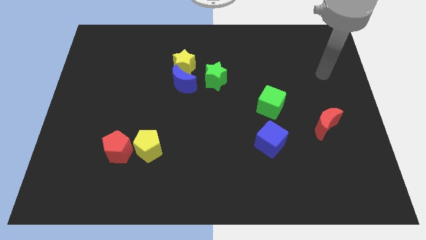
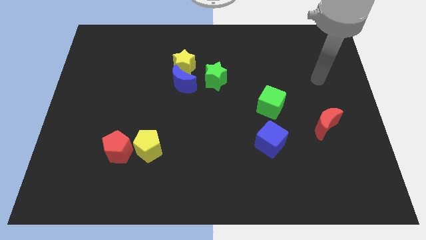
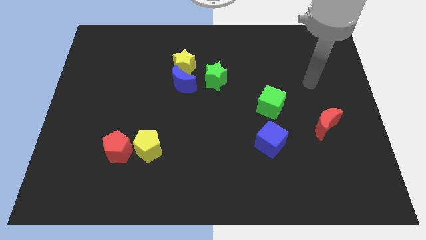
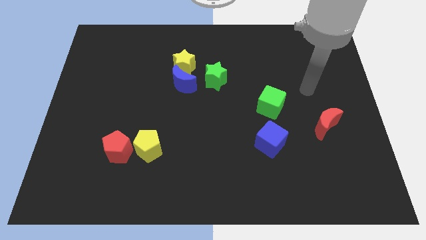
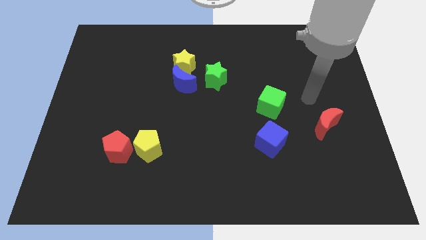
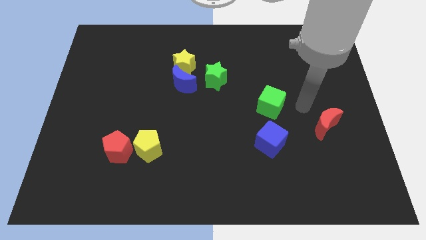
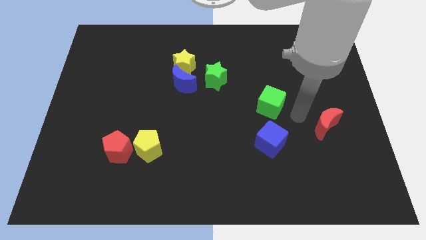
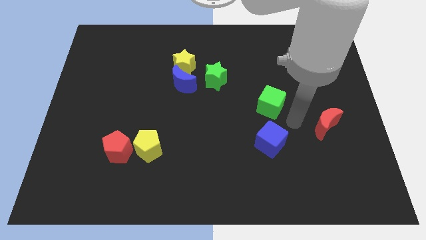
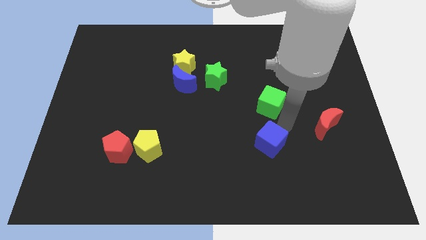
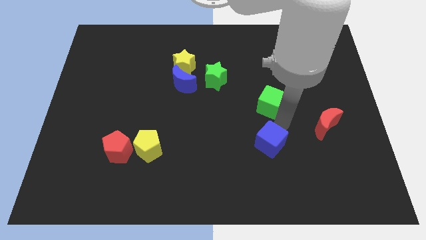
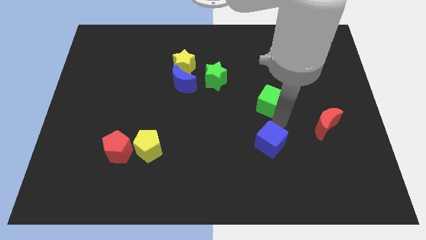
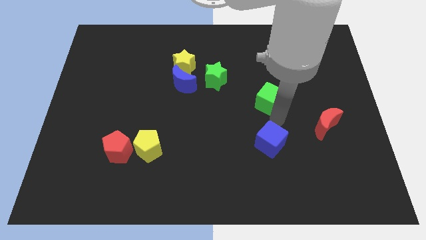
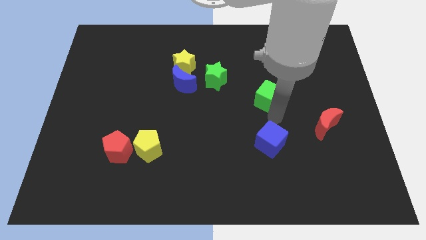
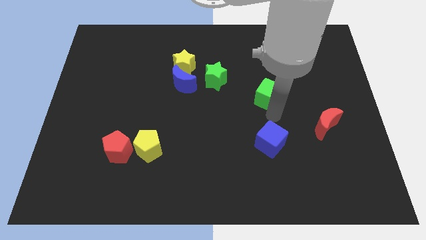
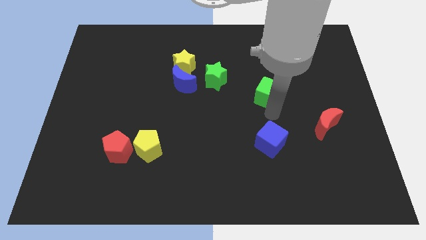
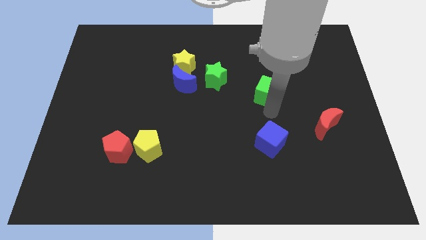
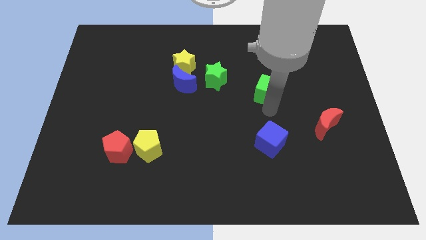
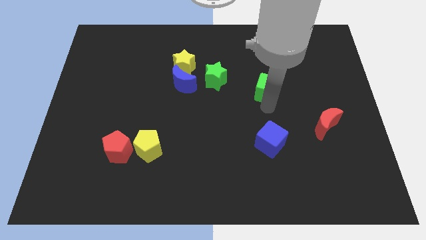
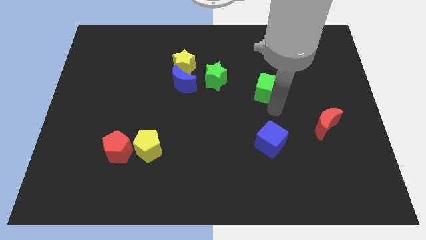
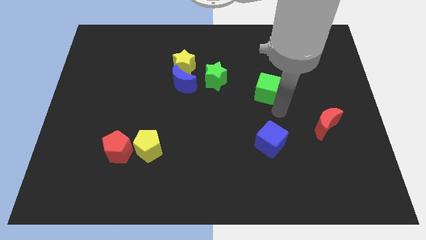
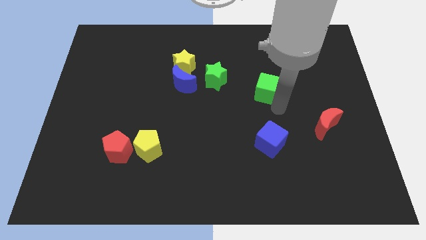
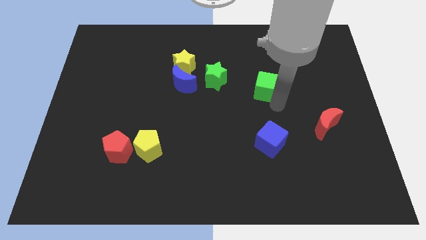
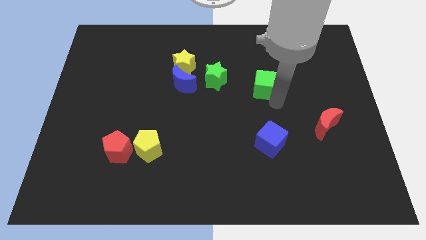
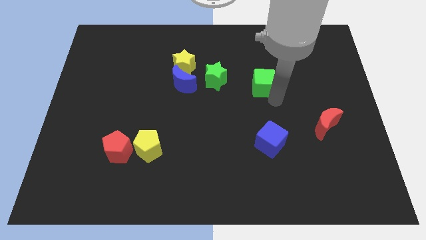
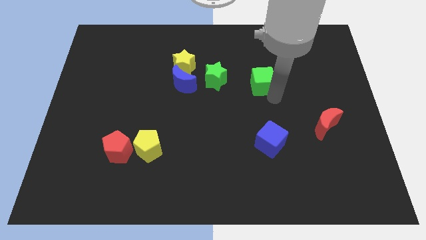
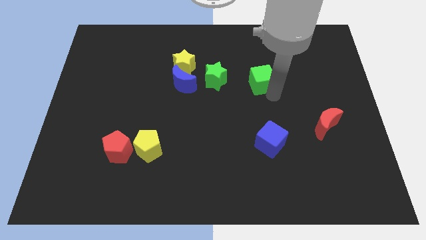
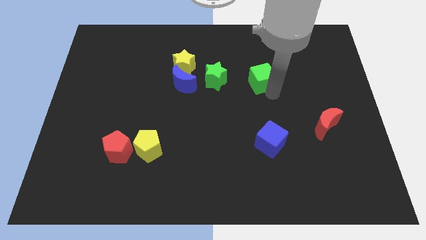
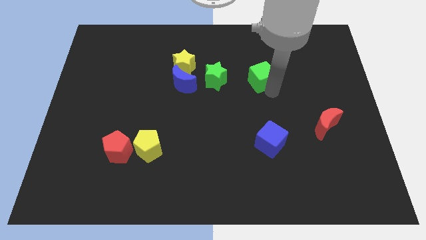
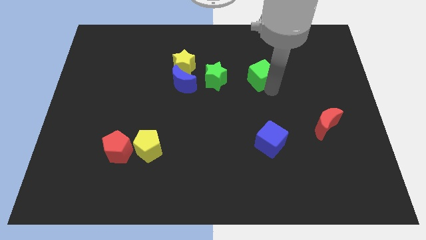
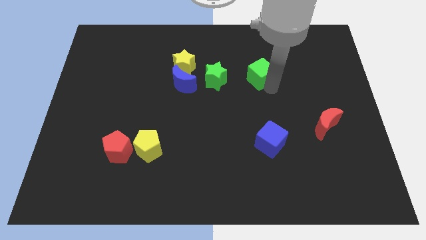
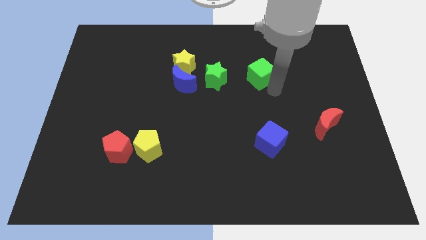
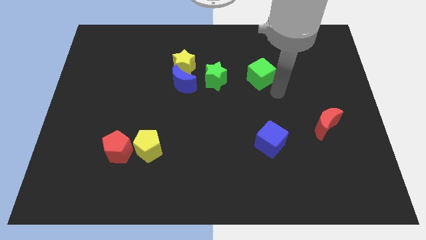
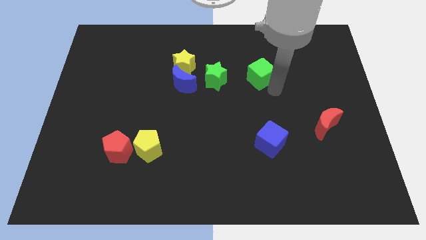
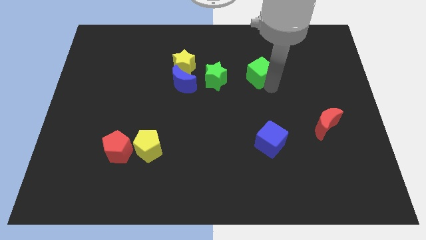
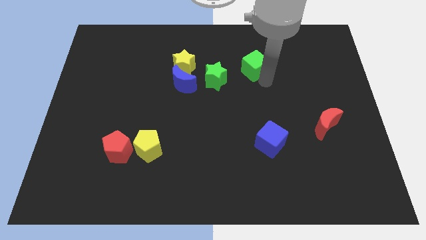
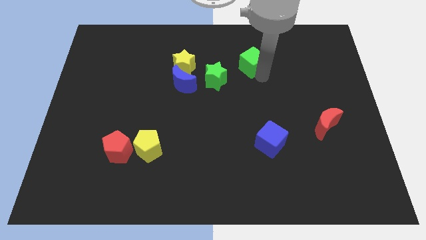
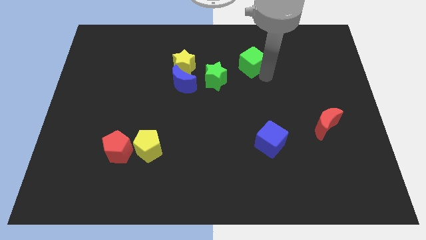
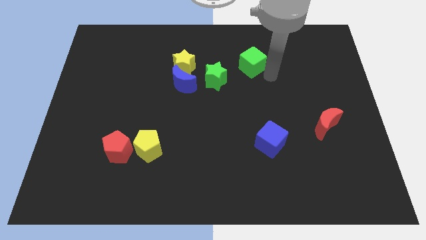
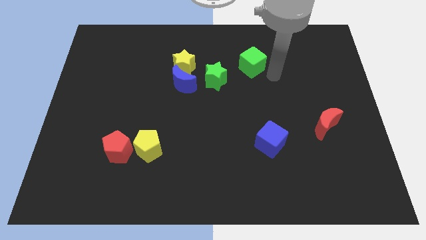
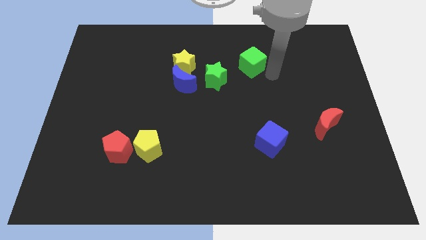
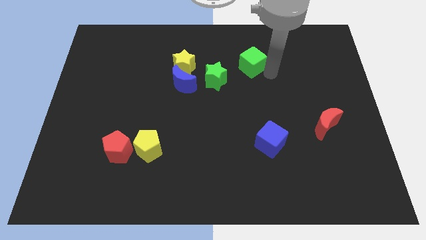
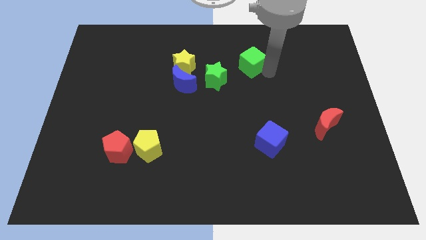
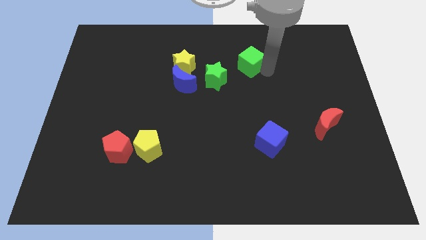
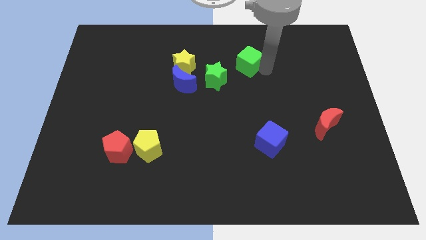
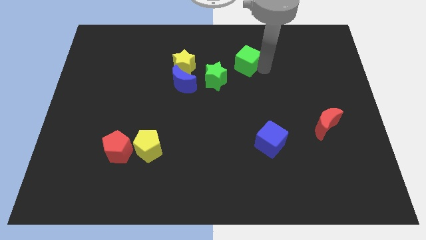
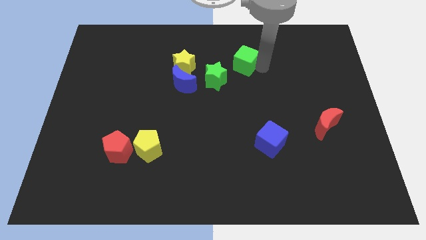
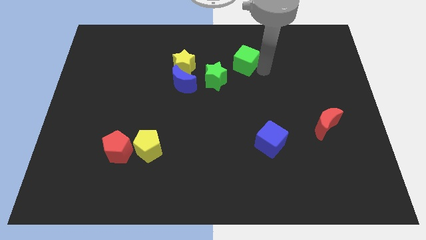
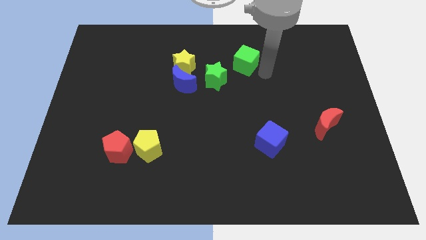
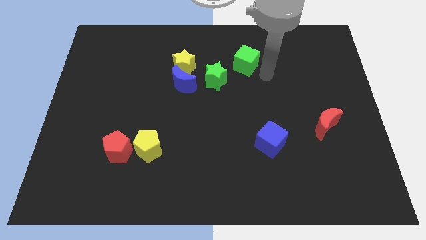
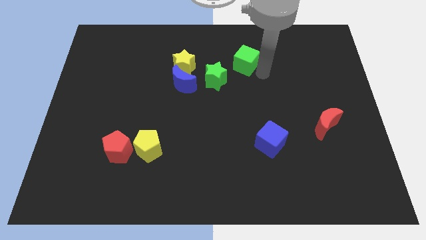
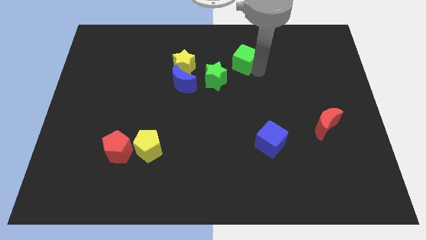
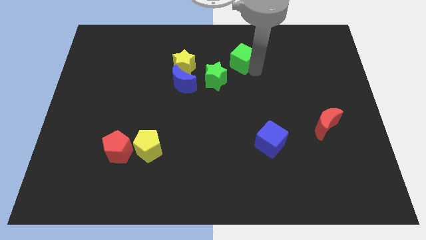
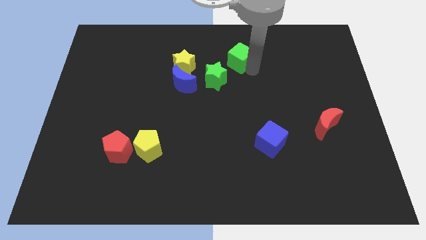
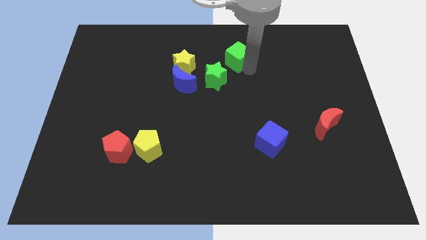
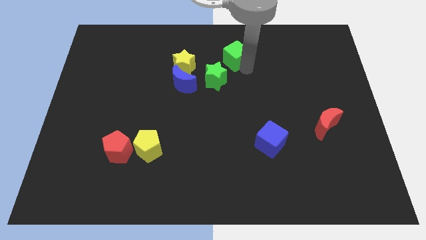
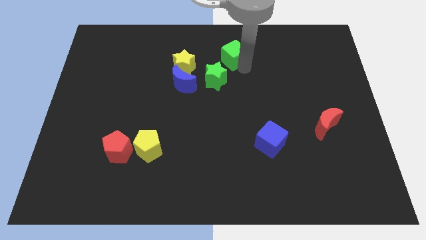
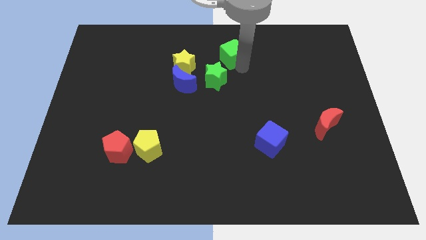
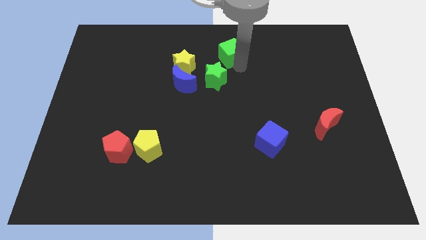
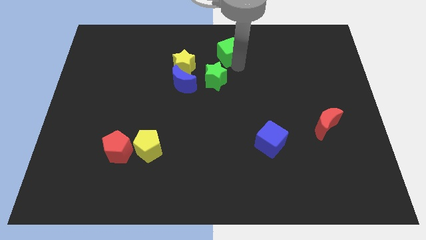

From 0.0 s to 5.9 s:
put the green cube to the top side

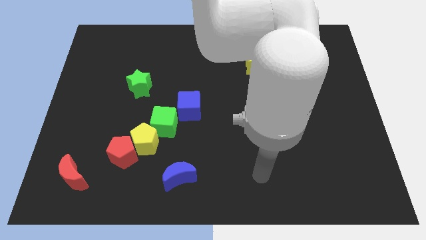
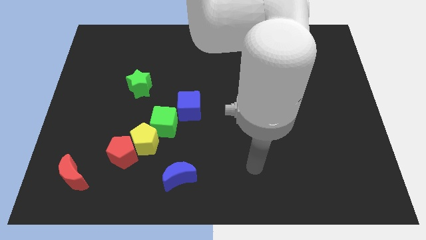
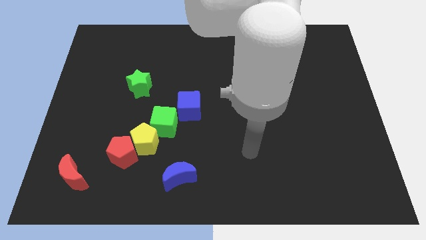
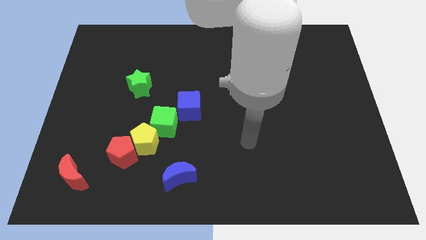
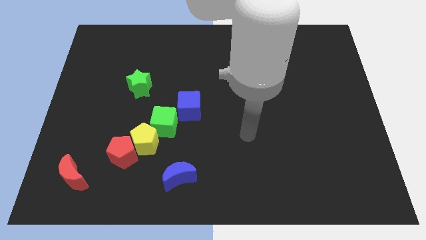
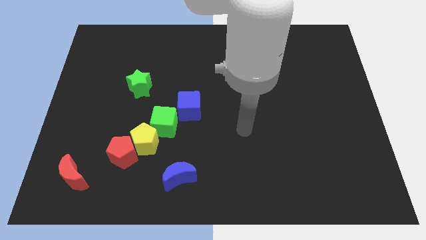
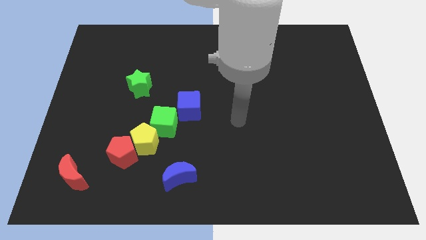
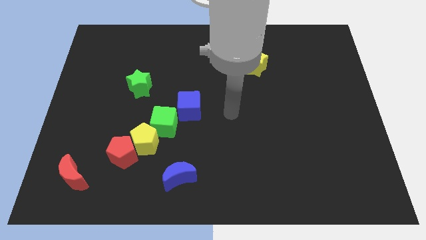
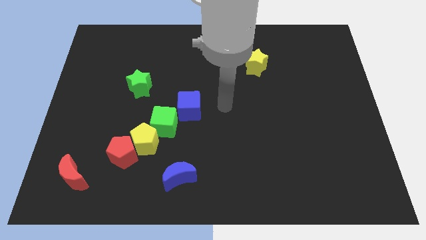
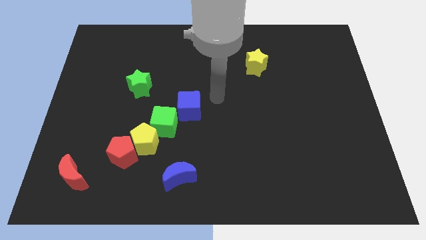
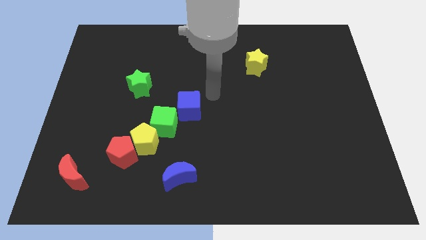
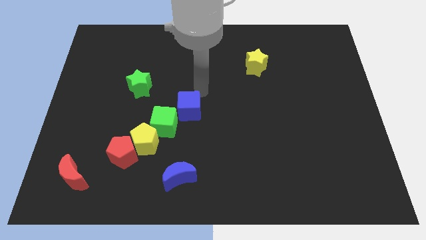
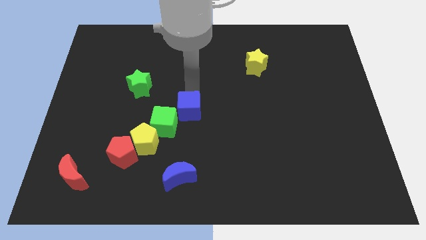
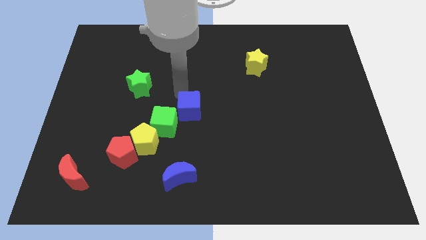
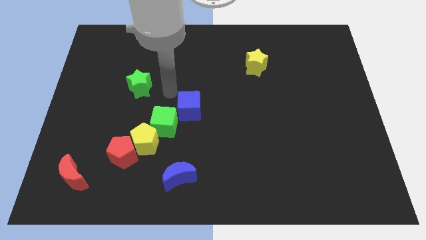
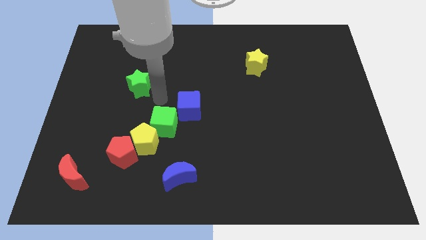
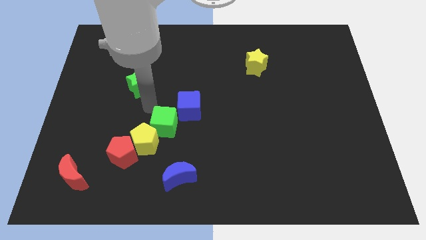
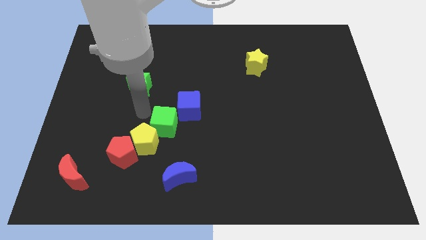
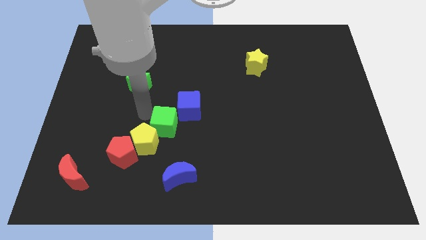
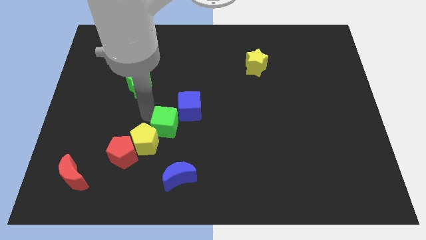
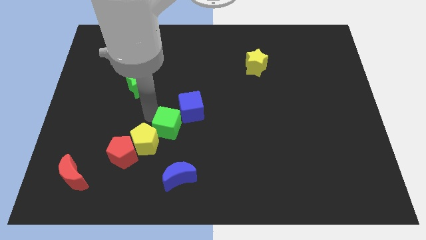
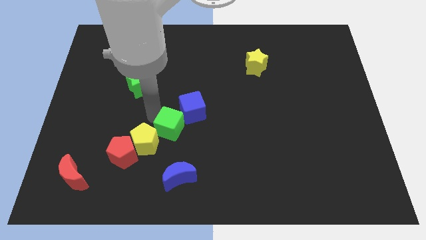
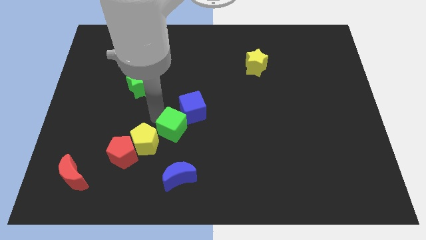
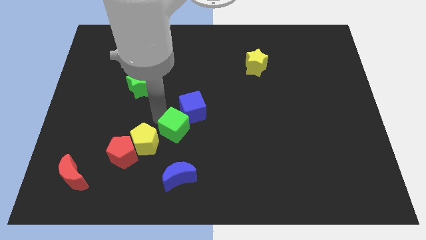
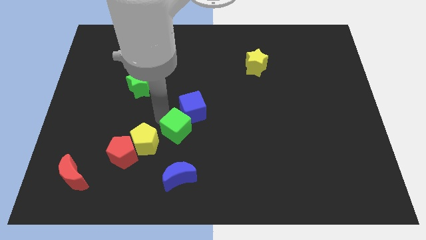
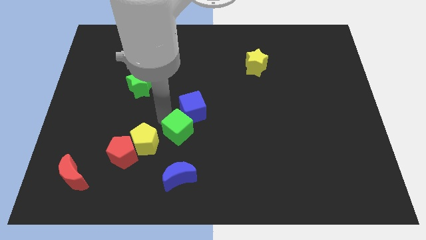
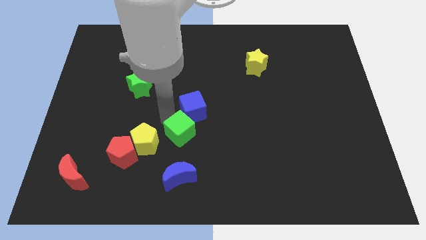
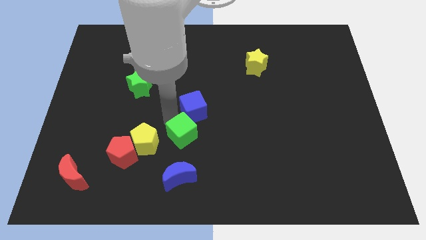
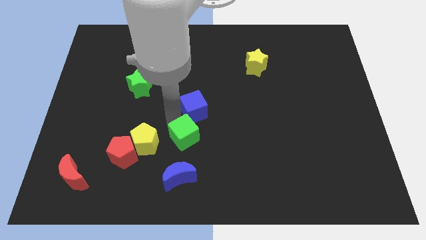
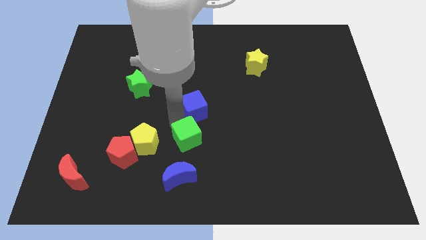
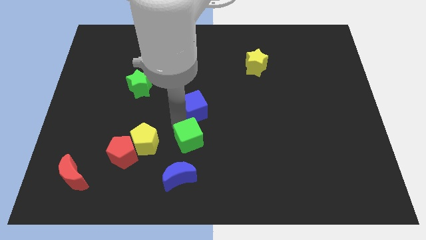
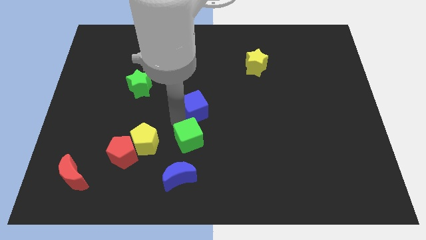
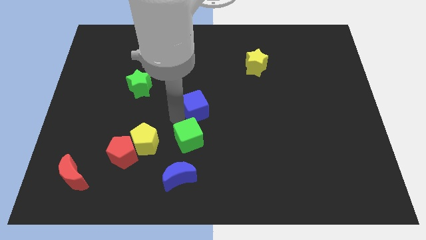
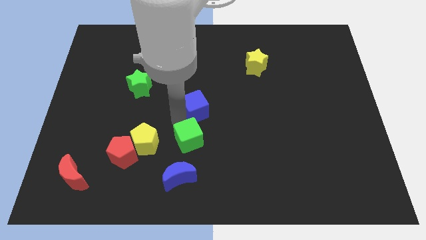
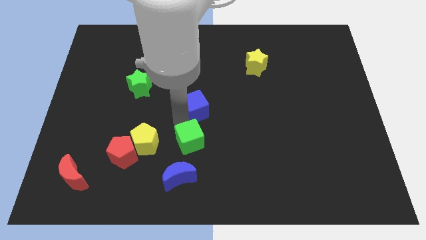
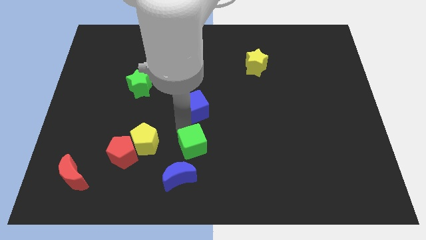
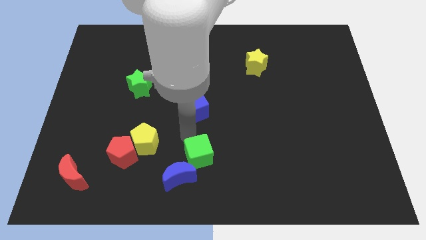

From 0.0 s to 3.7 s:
push the green cube to the bottom
